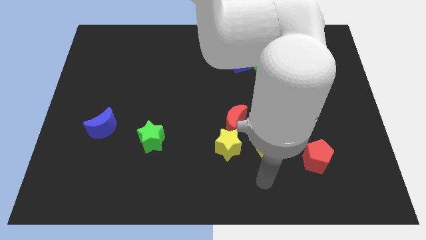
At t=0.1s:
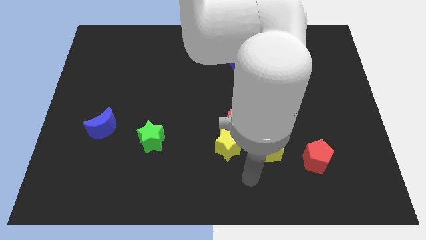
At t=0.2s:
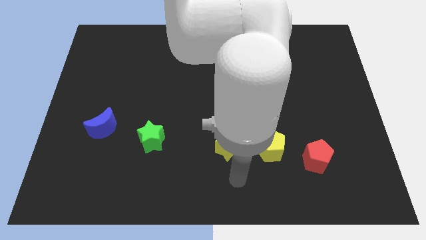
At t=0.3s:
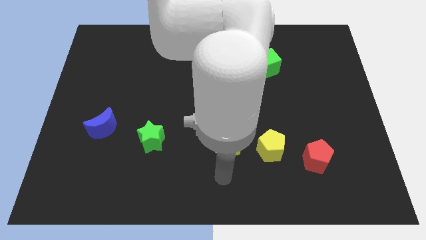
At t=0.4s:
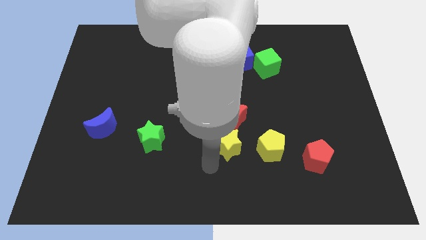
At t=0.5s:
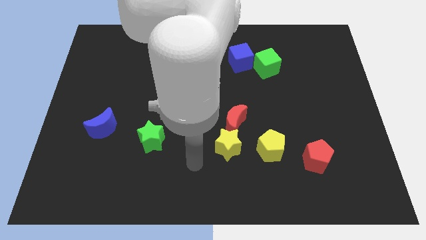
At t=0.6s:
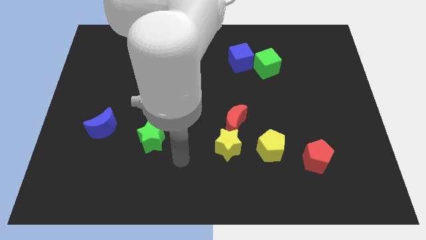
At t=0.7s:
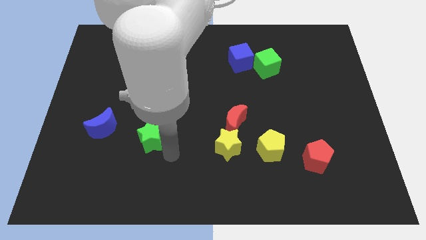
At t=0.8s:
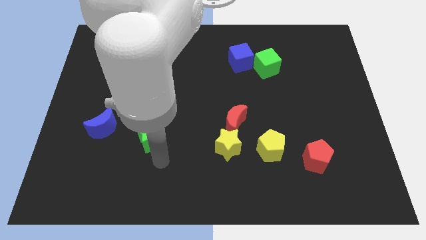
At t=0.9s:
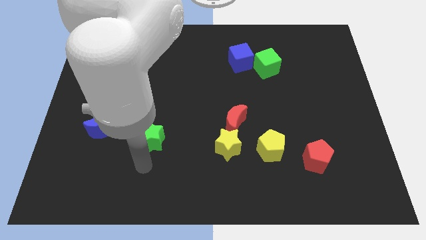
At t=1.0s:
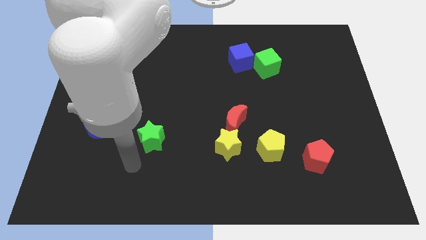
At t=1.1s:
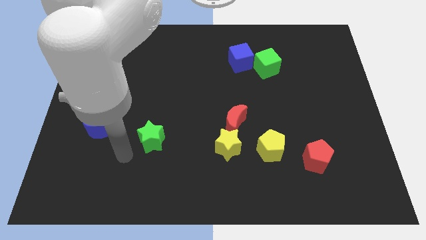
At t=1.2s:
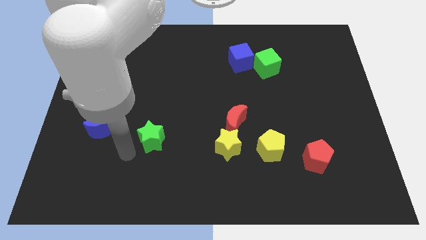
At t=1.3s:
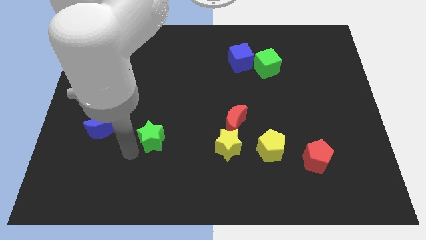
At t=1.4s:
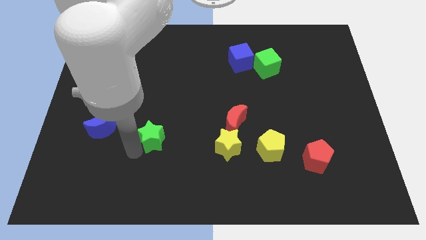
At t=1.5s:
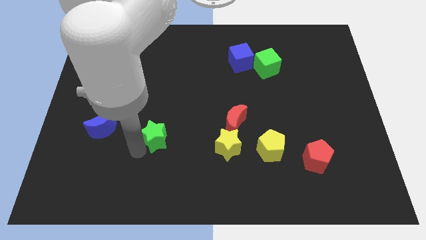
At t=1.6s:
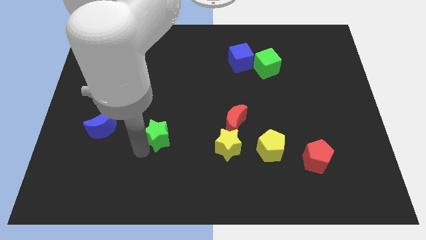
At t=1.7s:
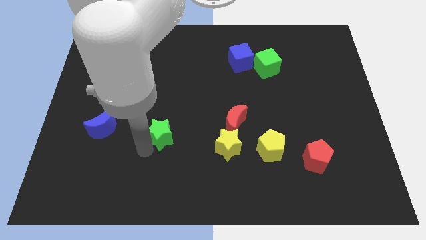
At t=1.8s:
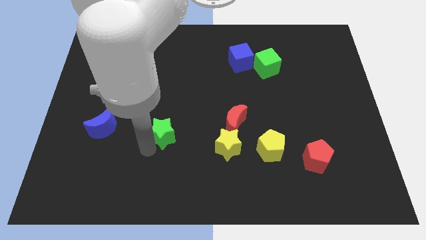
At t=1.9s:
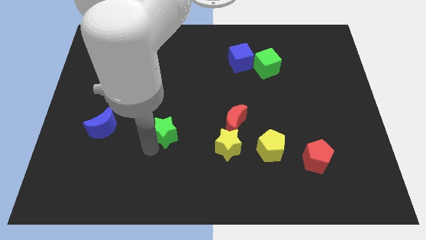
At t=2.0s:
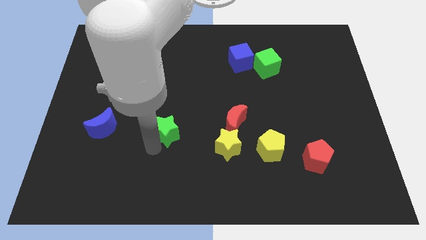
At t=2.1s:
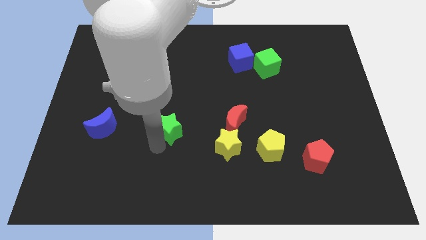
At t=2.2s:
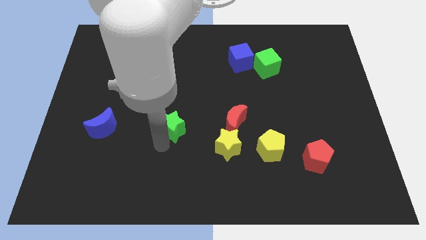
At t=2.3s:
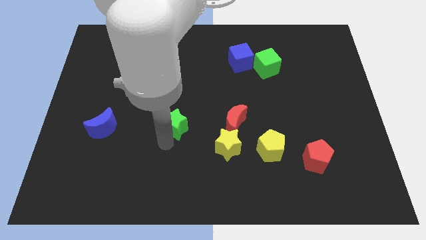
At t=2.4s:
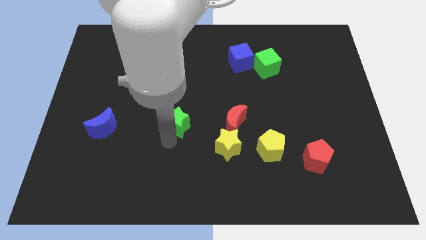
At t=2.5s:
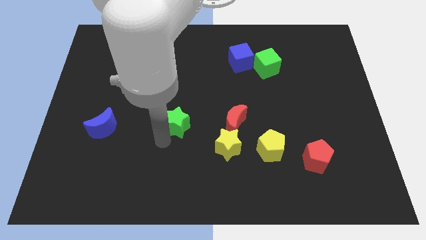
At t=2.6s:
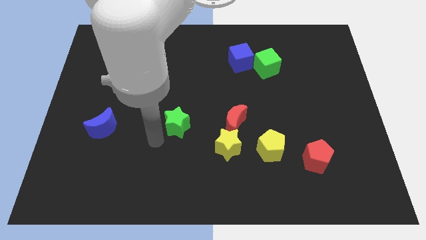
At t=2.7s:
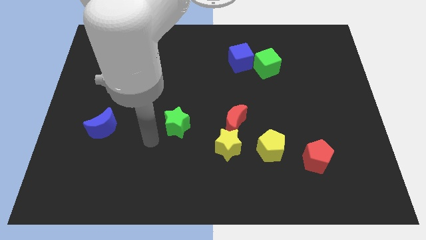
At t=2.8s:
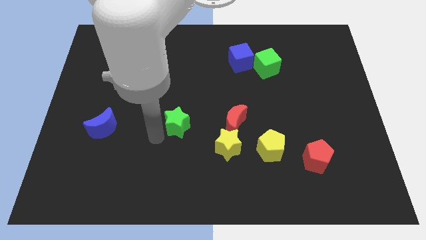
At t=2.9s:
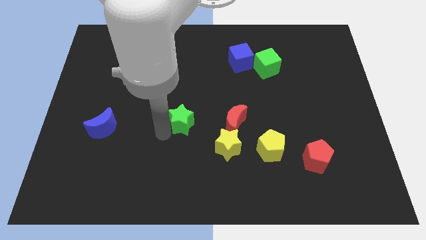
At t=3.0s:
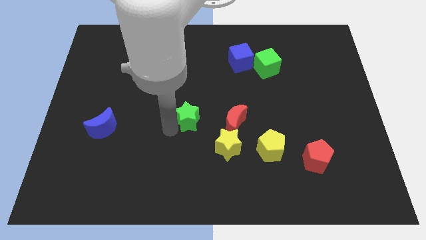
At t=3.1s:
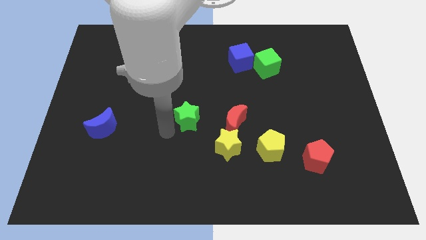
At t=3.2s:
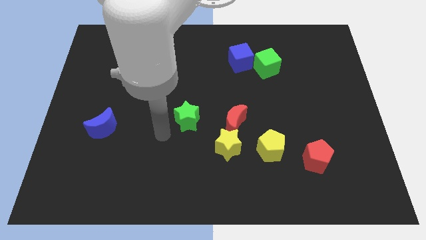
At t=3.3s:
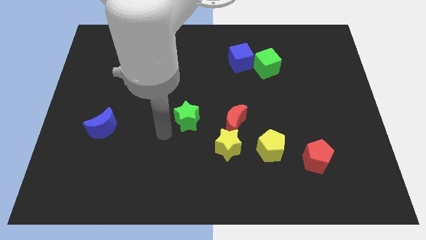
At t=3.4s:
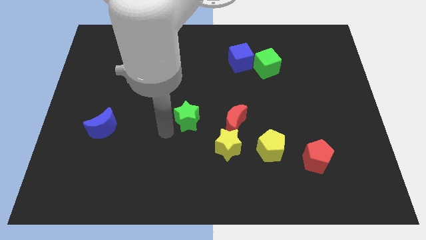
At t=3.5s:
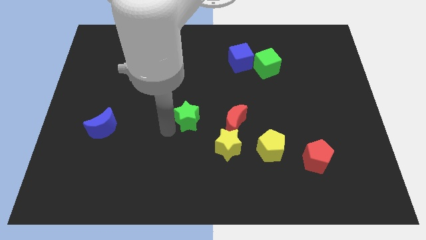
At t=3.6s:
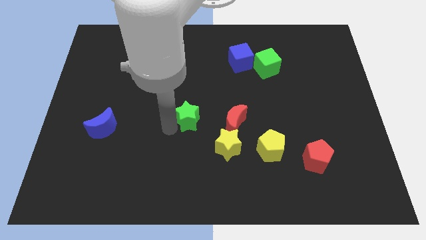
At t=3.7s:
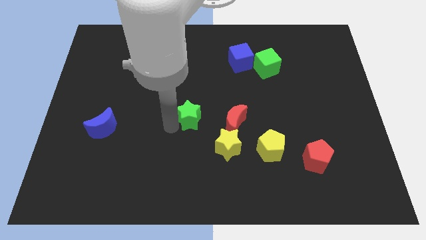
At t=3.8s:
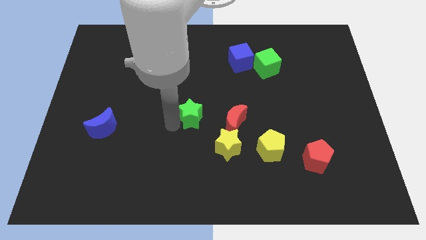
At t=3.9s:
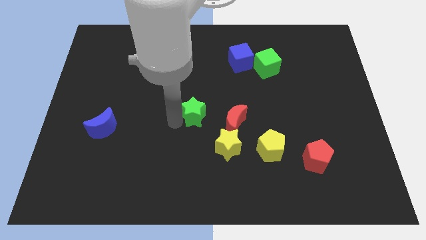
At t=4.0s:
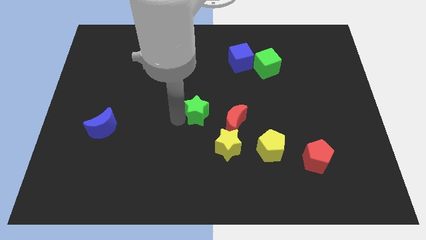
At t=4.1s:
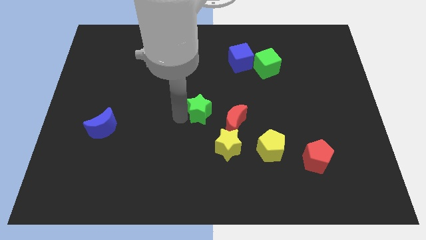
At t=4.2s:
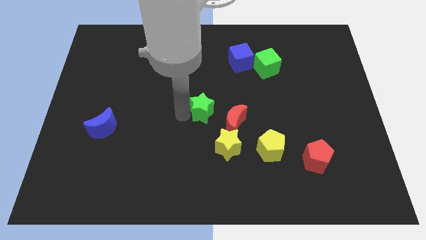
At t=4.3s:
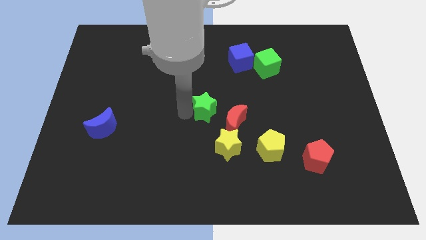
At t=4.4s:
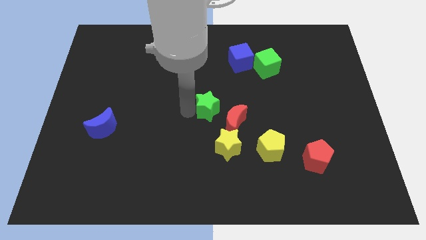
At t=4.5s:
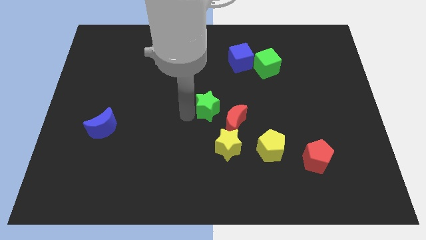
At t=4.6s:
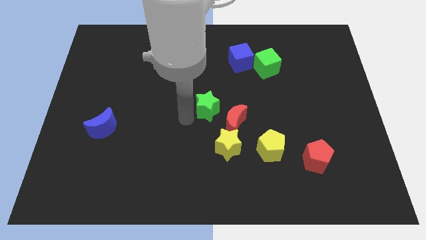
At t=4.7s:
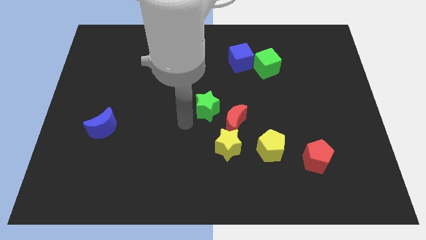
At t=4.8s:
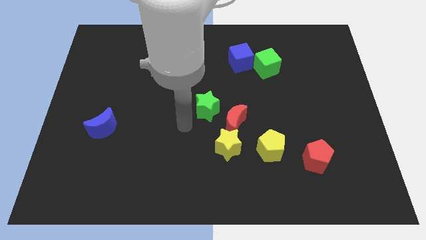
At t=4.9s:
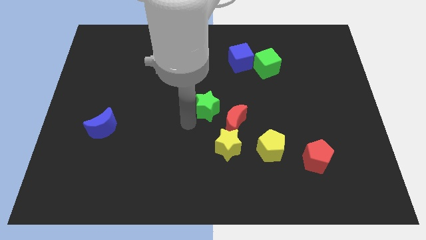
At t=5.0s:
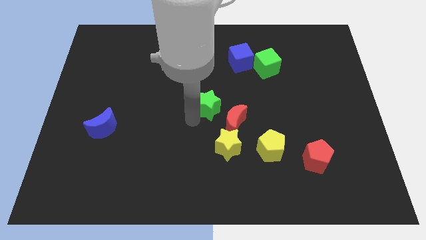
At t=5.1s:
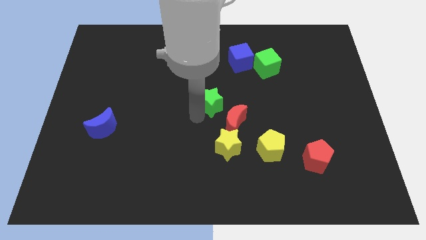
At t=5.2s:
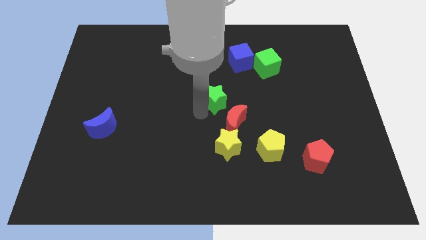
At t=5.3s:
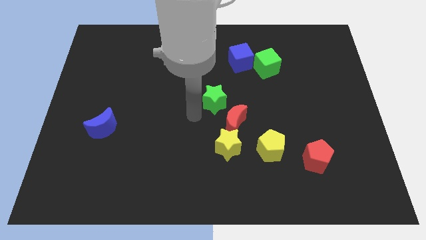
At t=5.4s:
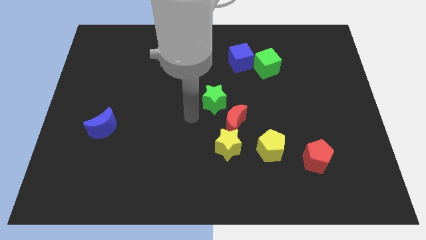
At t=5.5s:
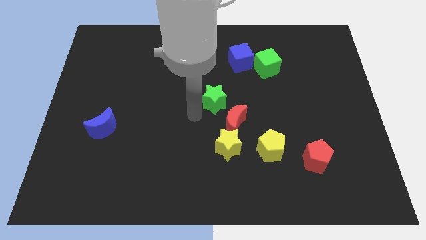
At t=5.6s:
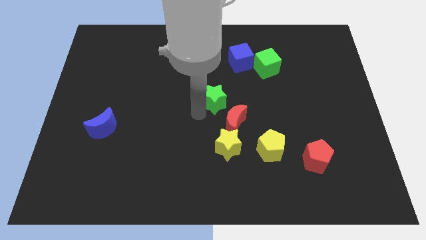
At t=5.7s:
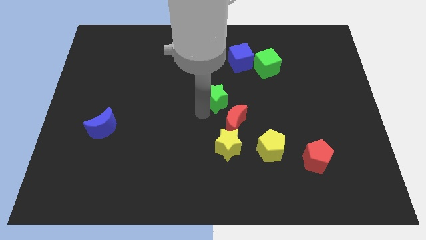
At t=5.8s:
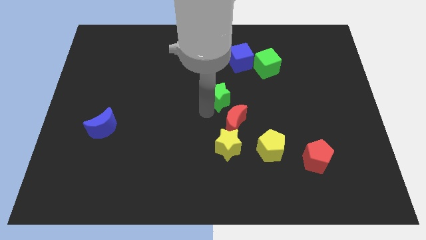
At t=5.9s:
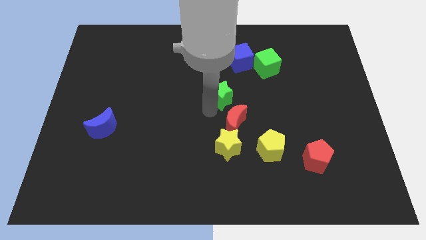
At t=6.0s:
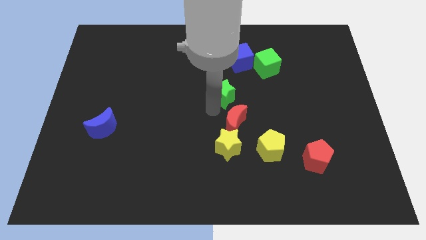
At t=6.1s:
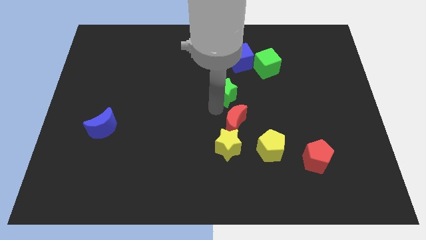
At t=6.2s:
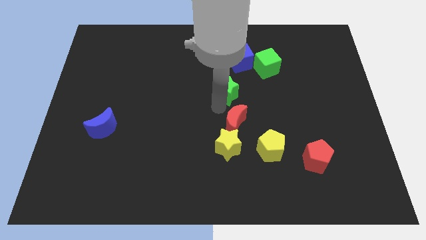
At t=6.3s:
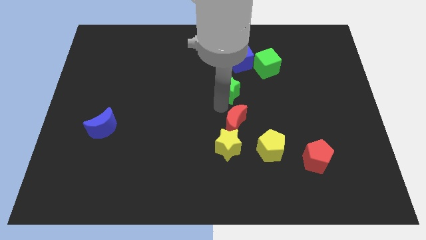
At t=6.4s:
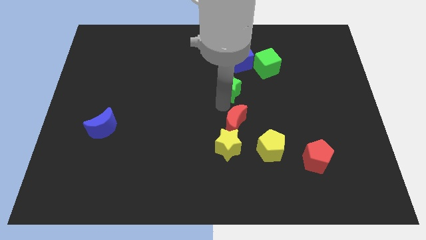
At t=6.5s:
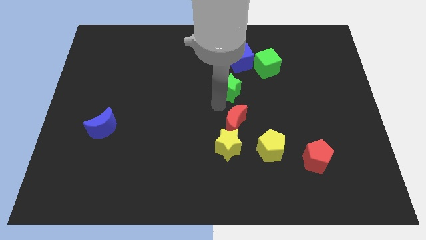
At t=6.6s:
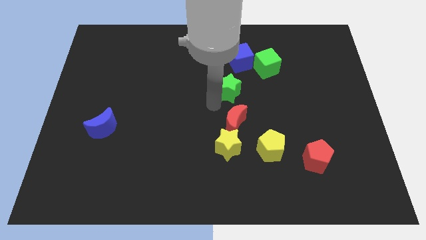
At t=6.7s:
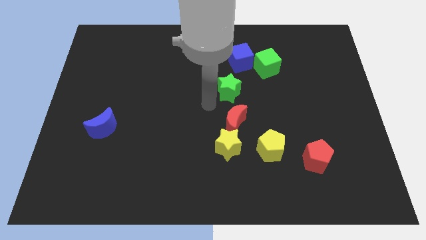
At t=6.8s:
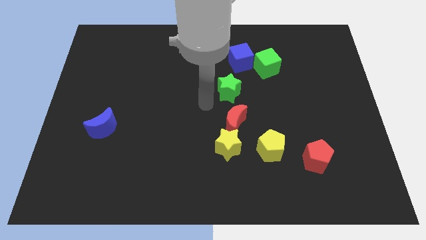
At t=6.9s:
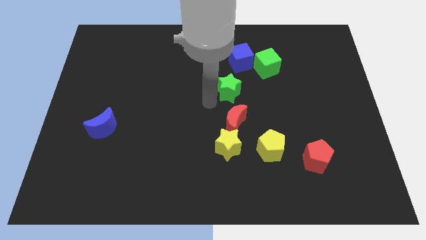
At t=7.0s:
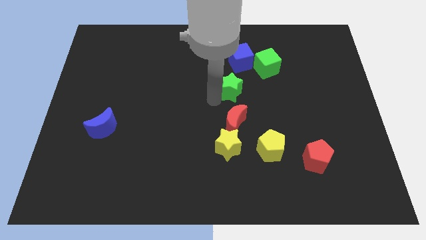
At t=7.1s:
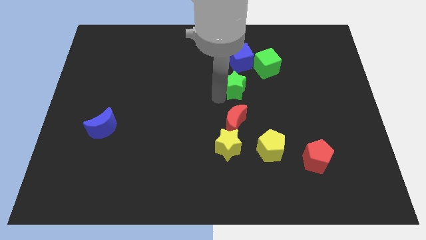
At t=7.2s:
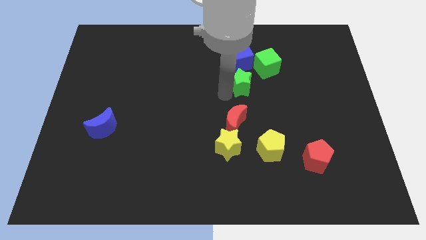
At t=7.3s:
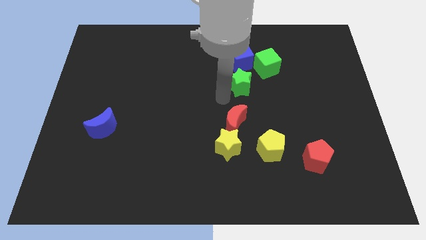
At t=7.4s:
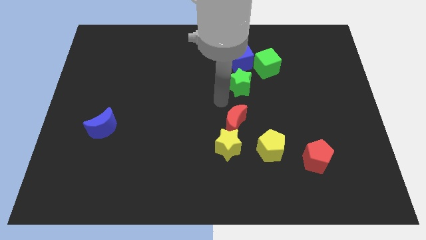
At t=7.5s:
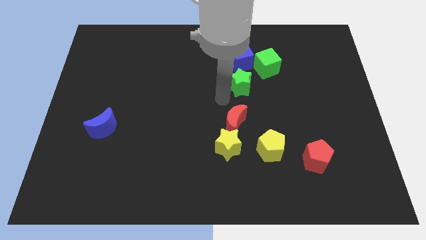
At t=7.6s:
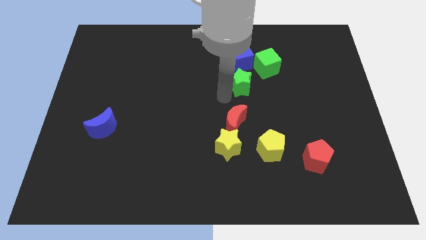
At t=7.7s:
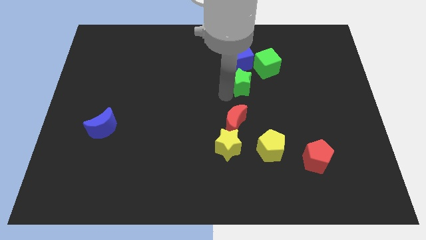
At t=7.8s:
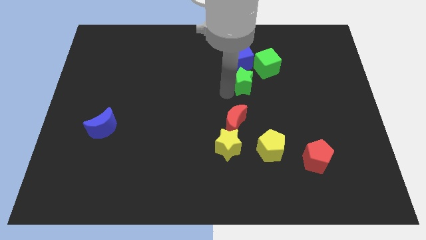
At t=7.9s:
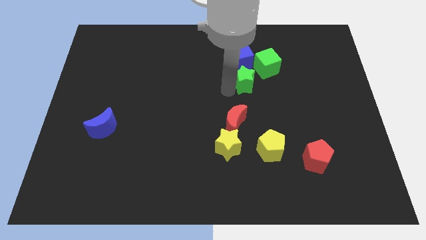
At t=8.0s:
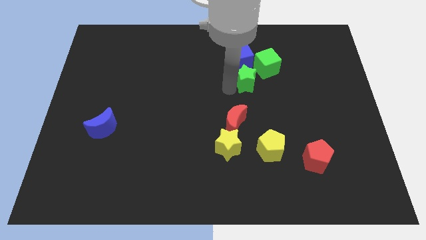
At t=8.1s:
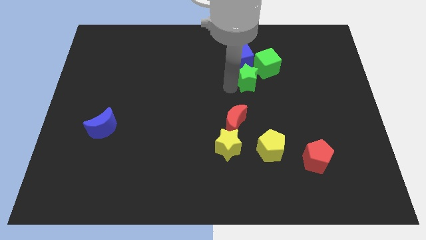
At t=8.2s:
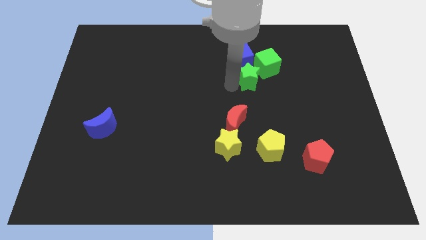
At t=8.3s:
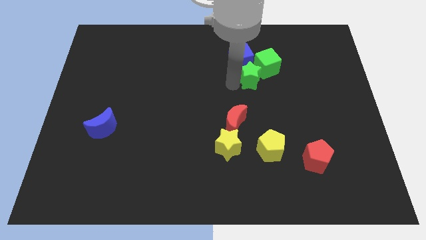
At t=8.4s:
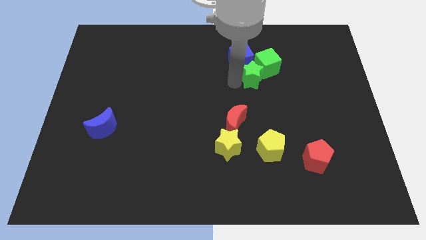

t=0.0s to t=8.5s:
move the green star towards the green cube
